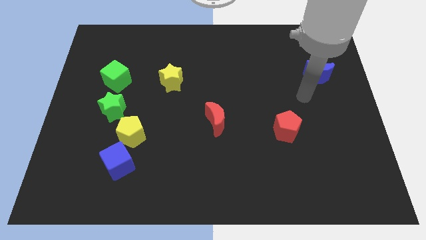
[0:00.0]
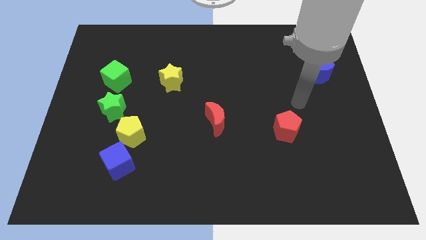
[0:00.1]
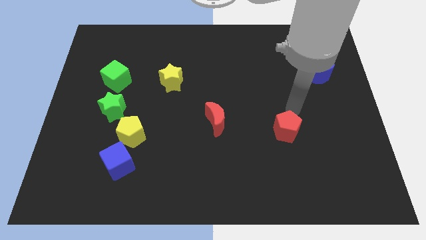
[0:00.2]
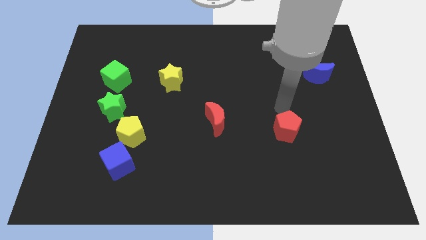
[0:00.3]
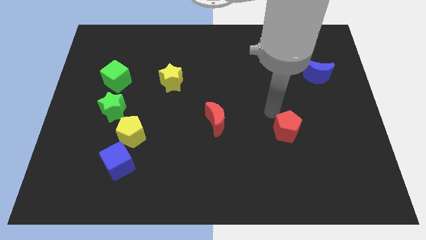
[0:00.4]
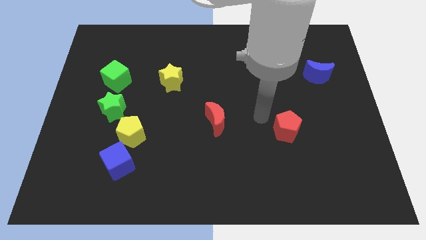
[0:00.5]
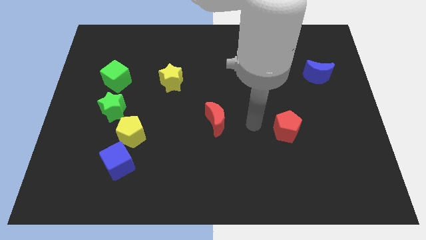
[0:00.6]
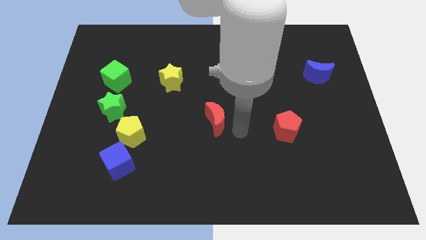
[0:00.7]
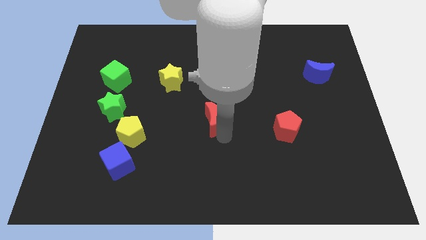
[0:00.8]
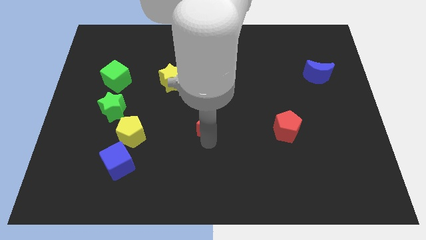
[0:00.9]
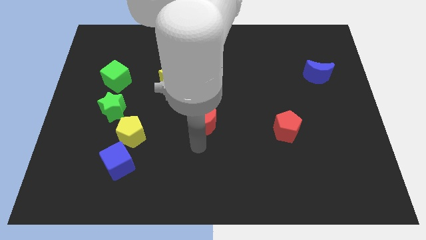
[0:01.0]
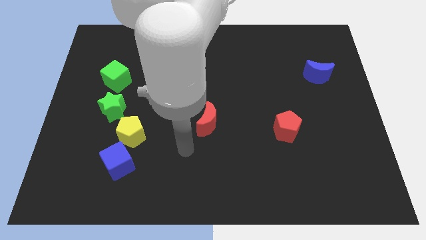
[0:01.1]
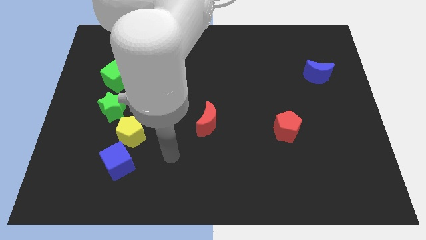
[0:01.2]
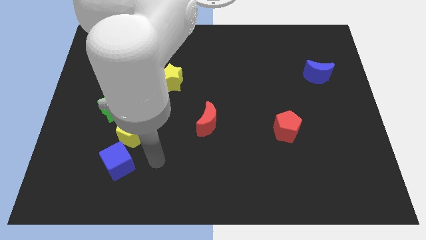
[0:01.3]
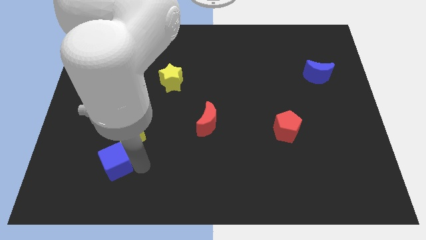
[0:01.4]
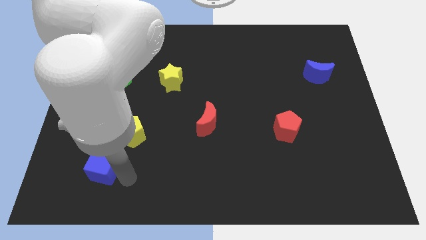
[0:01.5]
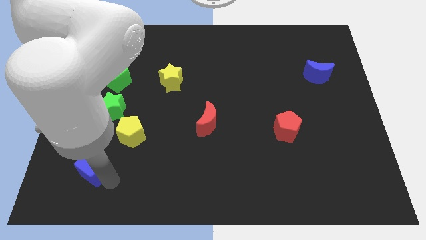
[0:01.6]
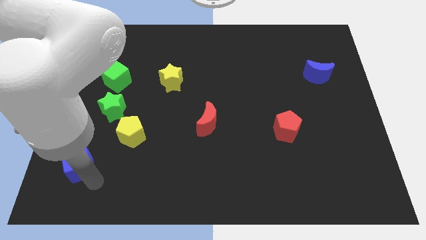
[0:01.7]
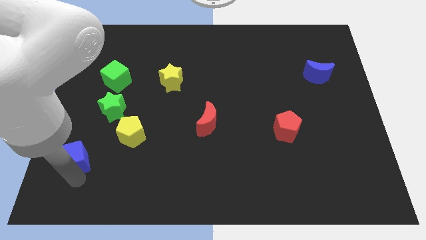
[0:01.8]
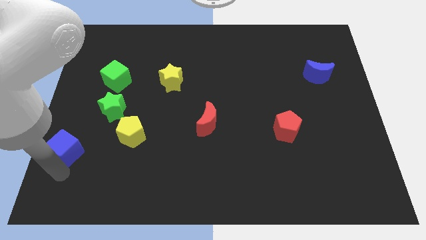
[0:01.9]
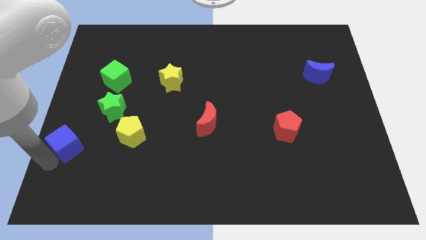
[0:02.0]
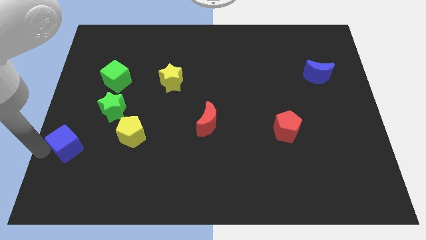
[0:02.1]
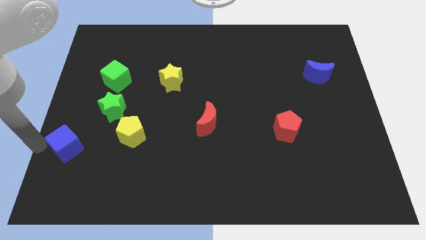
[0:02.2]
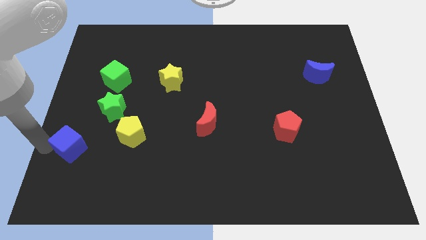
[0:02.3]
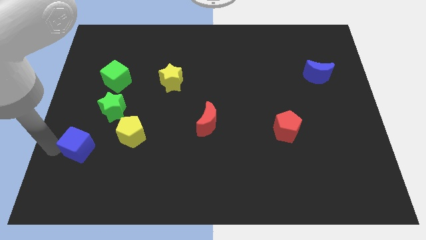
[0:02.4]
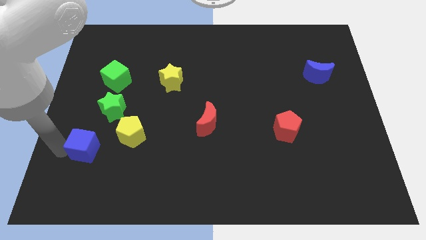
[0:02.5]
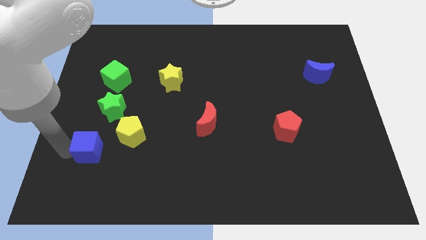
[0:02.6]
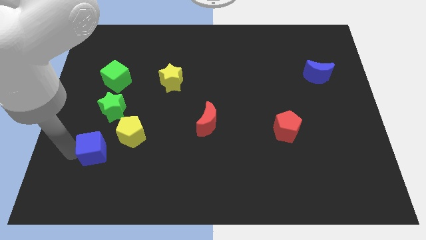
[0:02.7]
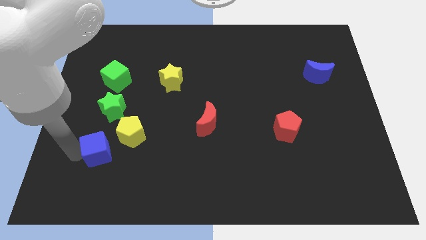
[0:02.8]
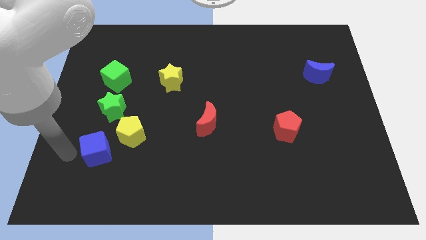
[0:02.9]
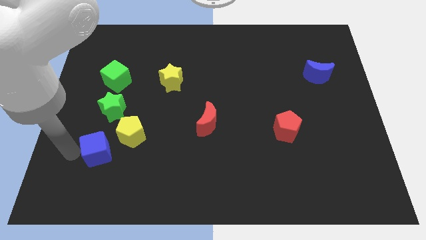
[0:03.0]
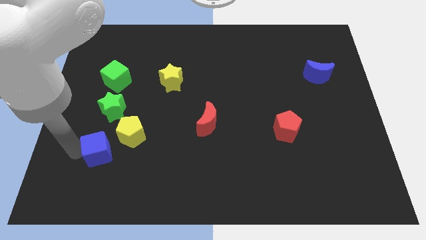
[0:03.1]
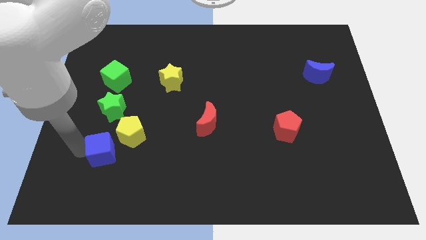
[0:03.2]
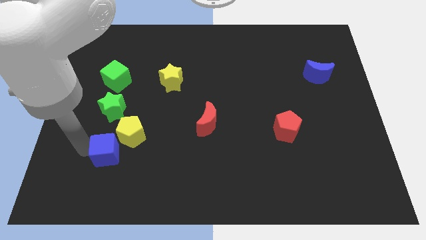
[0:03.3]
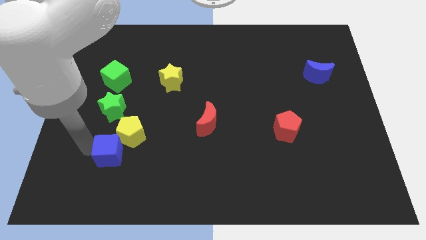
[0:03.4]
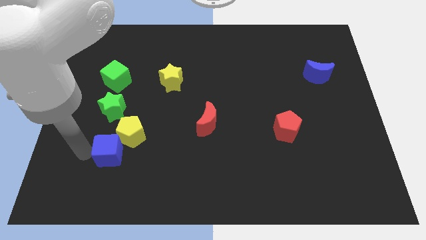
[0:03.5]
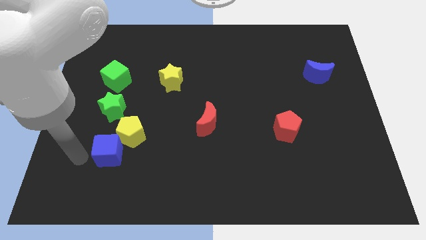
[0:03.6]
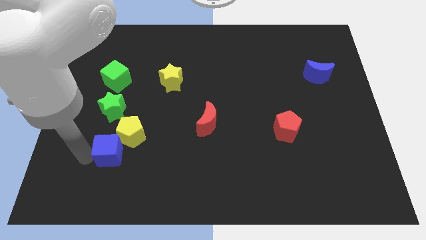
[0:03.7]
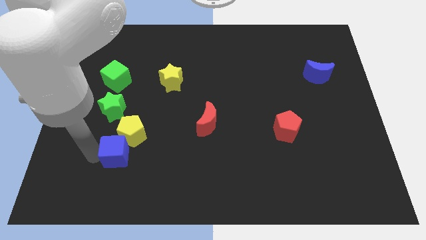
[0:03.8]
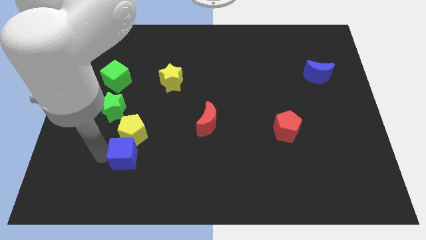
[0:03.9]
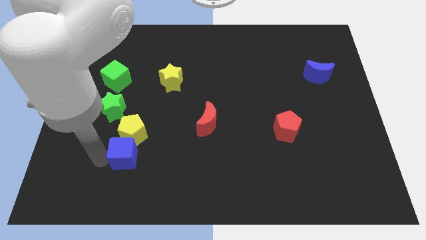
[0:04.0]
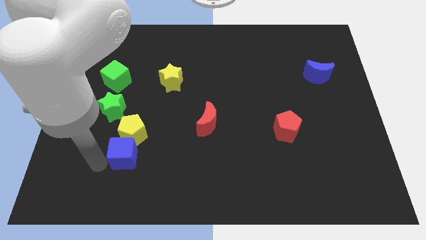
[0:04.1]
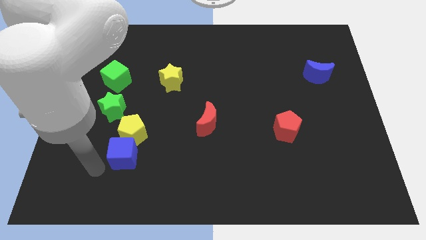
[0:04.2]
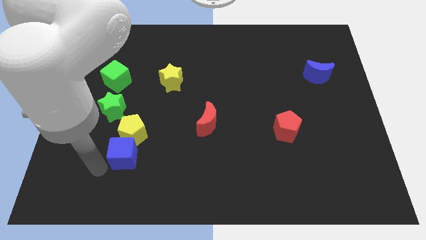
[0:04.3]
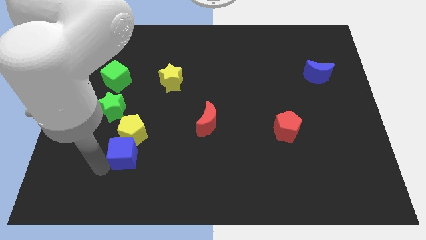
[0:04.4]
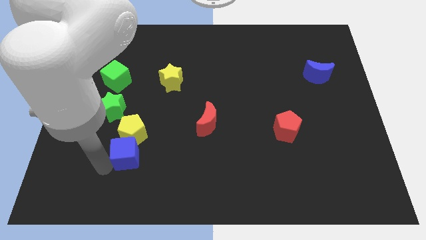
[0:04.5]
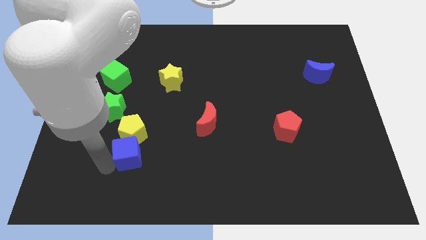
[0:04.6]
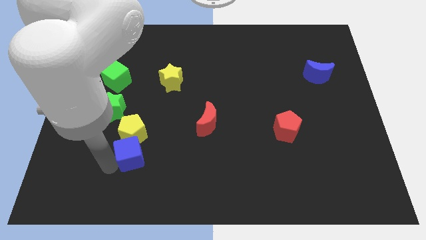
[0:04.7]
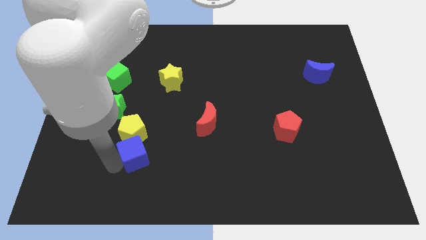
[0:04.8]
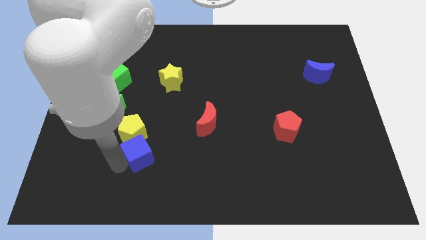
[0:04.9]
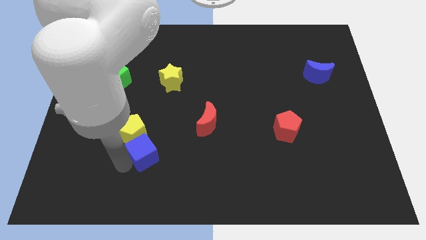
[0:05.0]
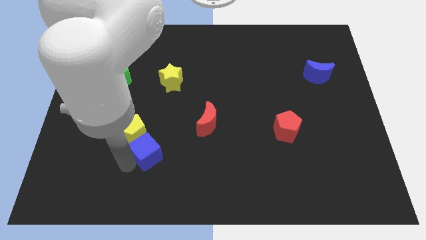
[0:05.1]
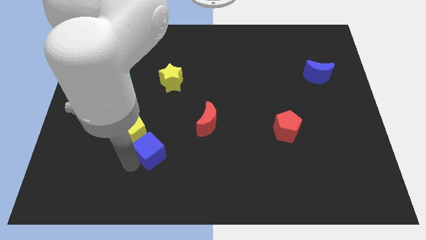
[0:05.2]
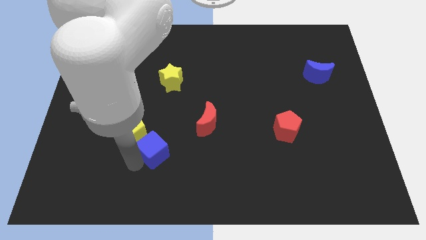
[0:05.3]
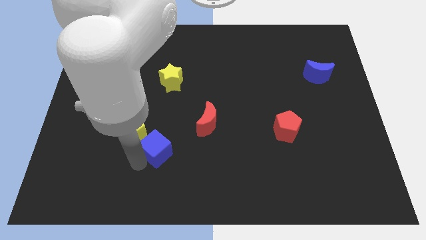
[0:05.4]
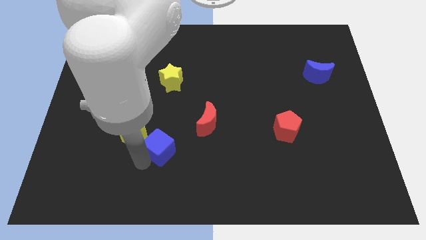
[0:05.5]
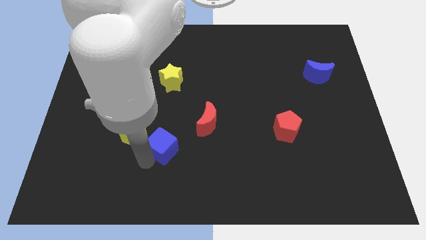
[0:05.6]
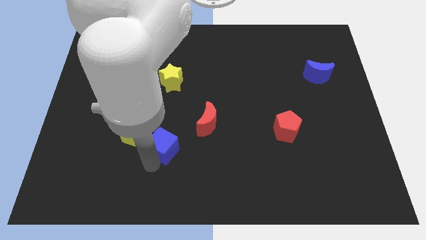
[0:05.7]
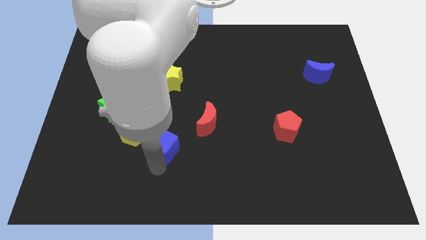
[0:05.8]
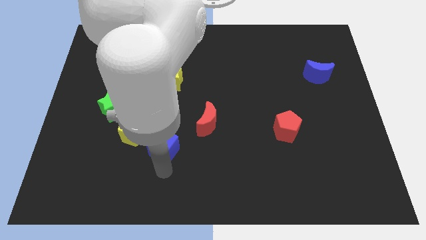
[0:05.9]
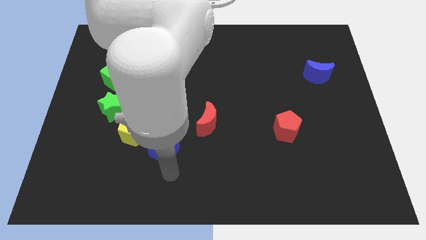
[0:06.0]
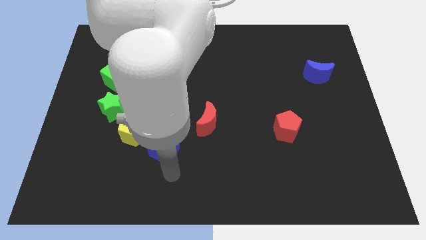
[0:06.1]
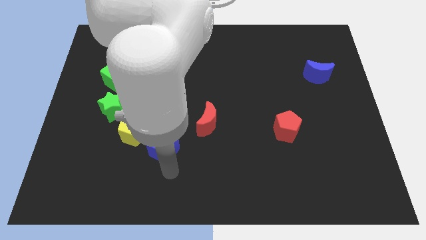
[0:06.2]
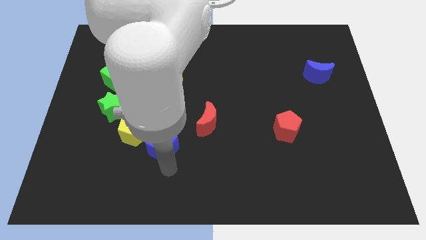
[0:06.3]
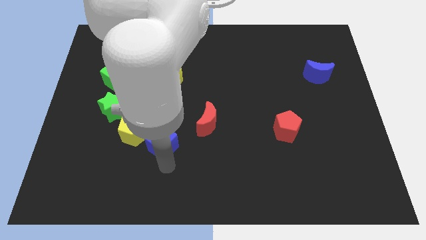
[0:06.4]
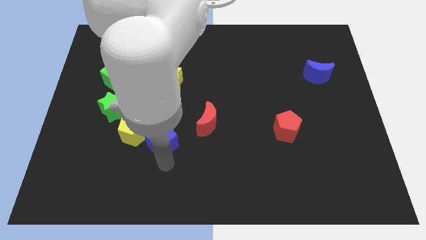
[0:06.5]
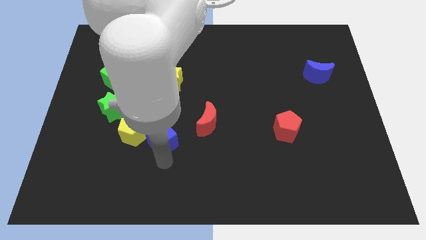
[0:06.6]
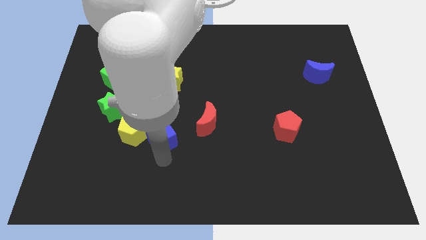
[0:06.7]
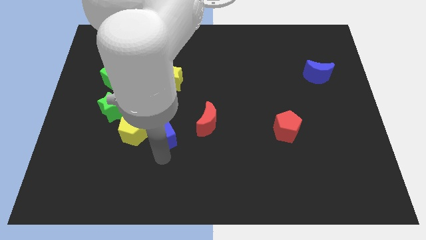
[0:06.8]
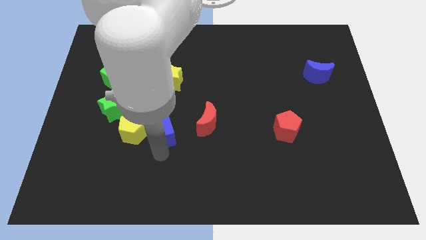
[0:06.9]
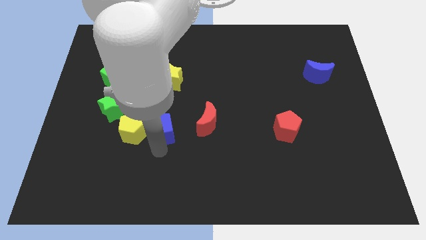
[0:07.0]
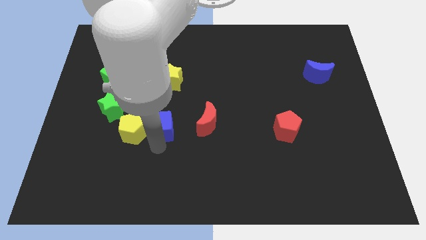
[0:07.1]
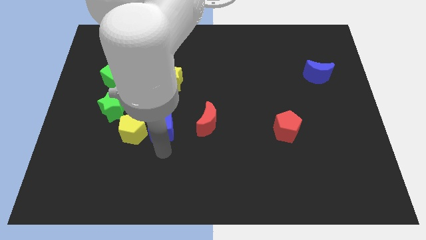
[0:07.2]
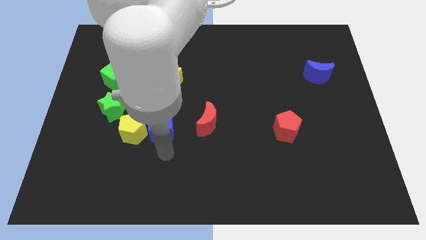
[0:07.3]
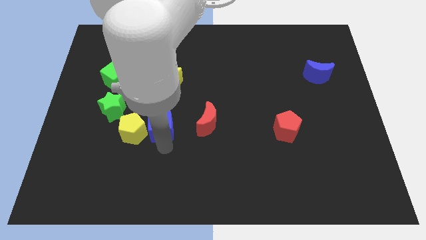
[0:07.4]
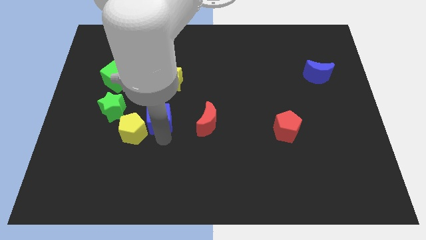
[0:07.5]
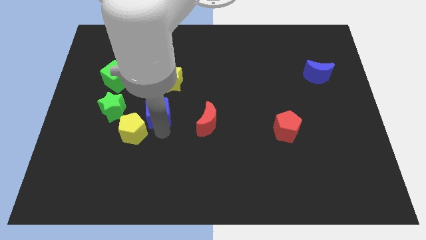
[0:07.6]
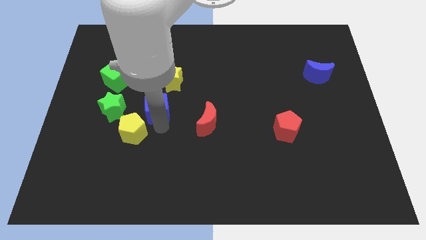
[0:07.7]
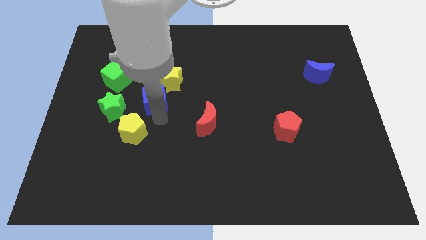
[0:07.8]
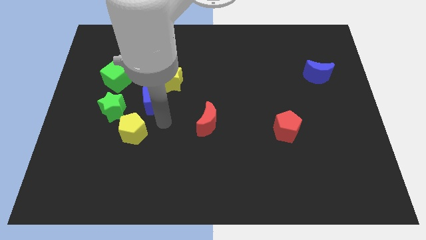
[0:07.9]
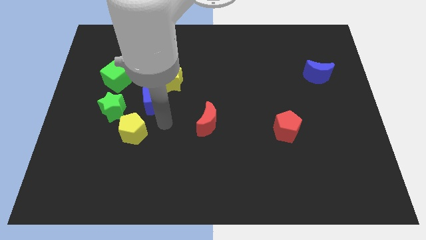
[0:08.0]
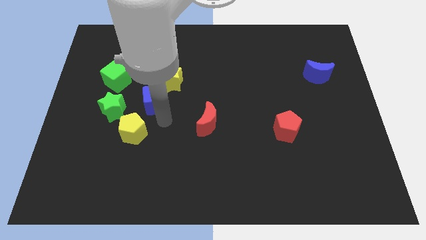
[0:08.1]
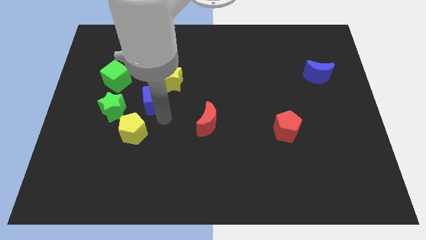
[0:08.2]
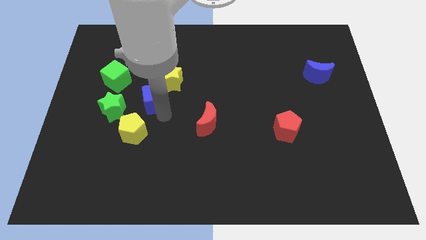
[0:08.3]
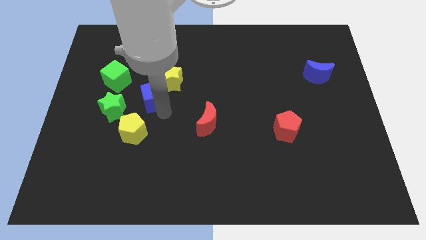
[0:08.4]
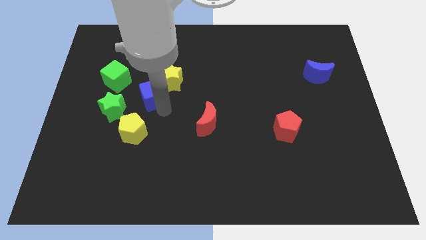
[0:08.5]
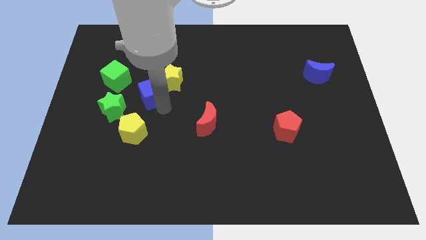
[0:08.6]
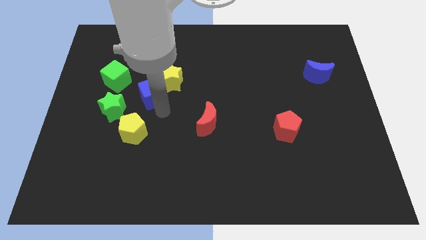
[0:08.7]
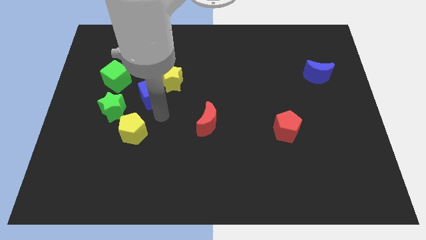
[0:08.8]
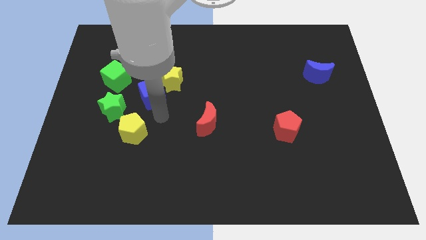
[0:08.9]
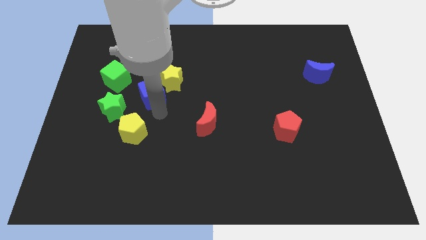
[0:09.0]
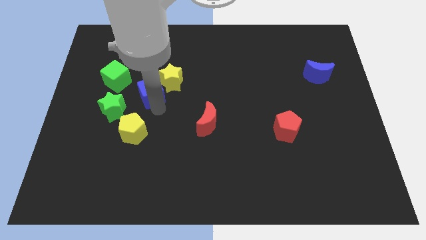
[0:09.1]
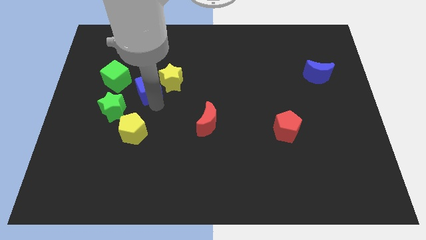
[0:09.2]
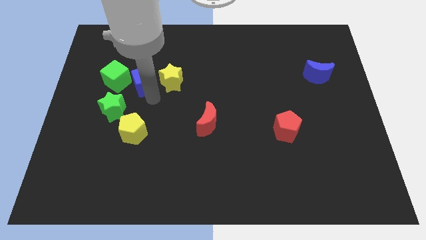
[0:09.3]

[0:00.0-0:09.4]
move the blue cube upwards
